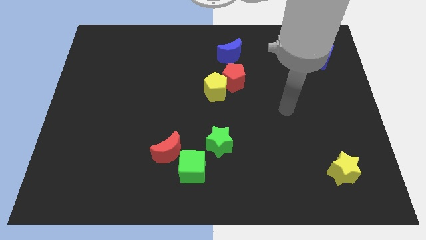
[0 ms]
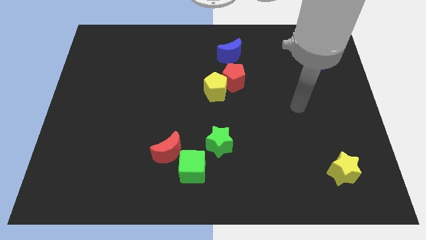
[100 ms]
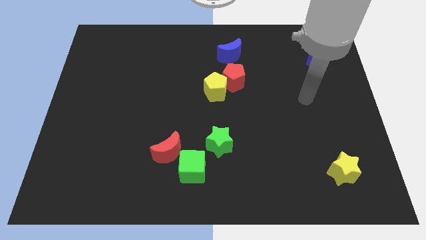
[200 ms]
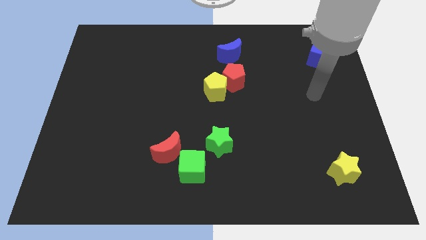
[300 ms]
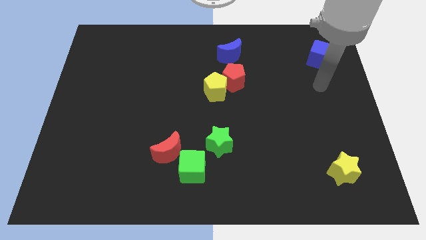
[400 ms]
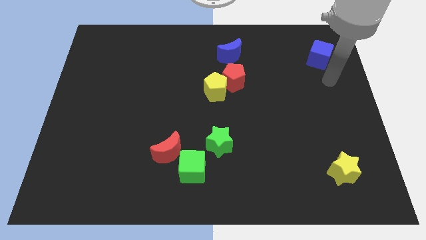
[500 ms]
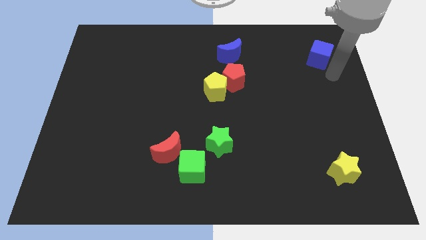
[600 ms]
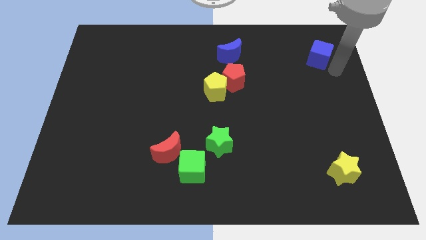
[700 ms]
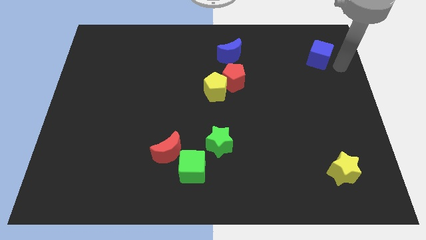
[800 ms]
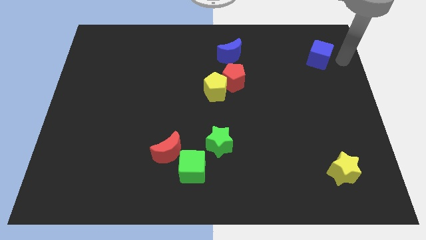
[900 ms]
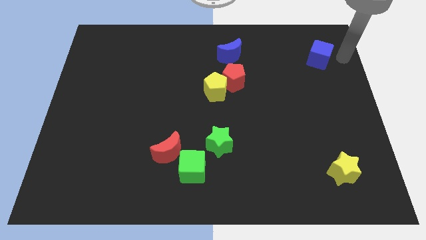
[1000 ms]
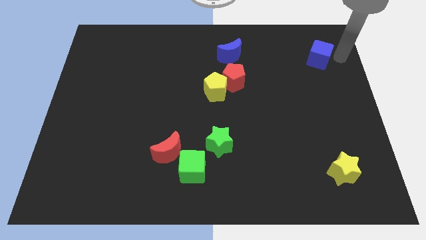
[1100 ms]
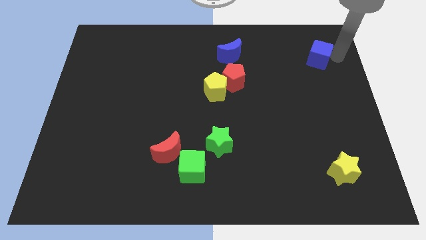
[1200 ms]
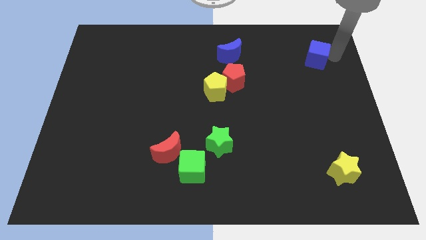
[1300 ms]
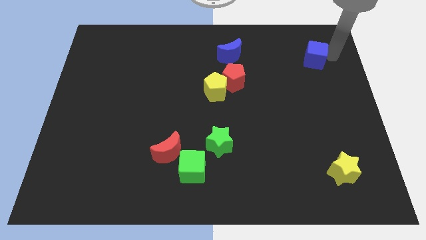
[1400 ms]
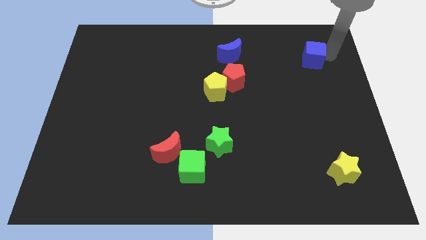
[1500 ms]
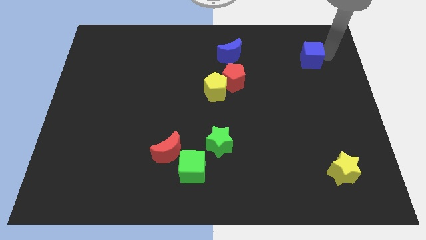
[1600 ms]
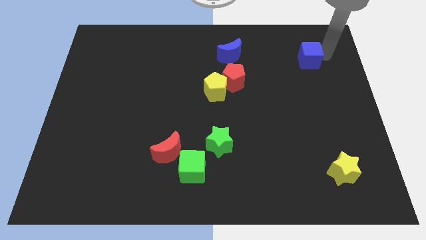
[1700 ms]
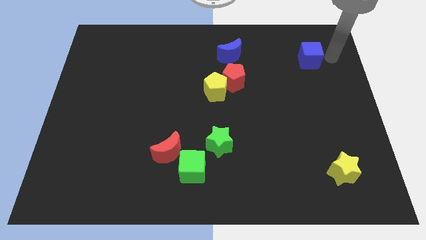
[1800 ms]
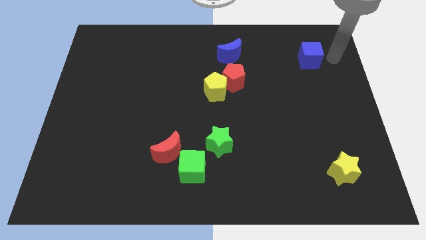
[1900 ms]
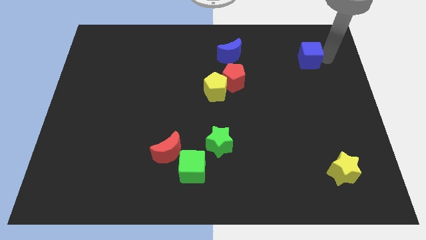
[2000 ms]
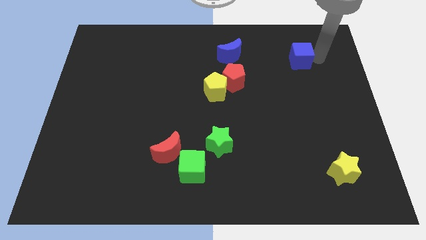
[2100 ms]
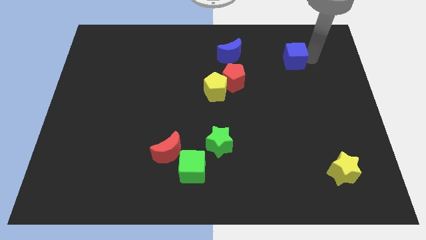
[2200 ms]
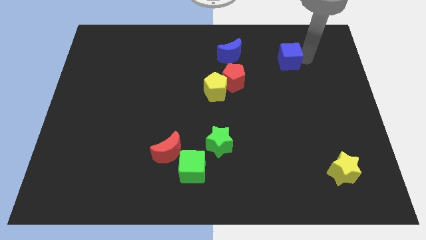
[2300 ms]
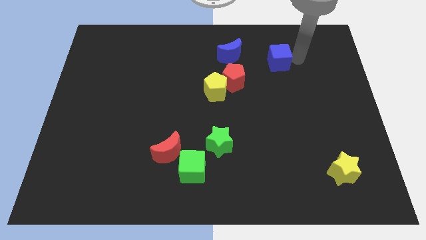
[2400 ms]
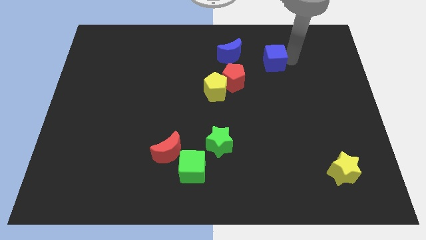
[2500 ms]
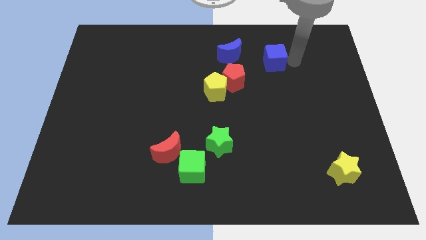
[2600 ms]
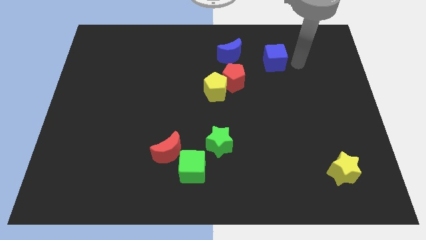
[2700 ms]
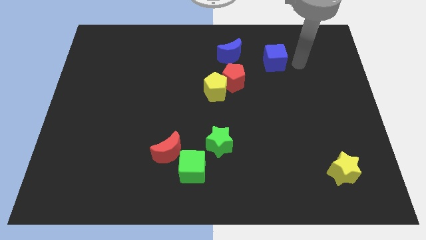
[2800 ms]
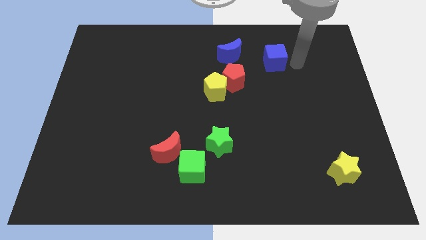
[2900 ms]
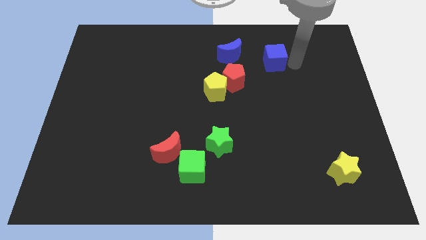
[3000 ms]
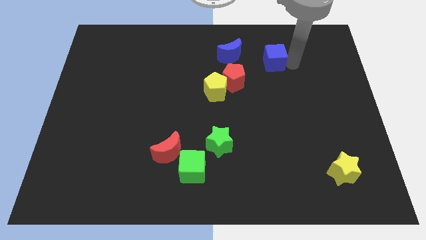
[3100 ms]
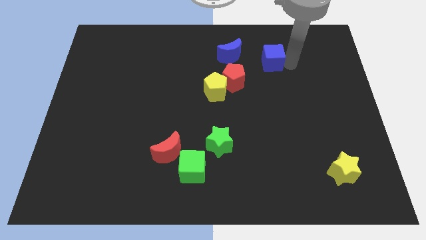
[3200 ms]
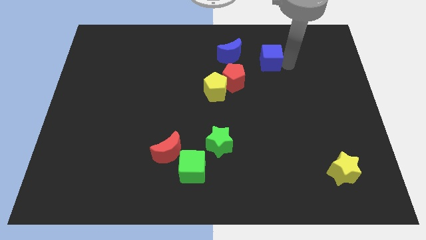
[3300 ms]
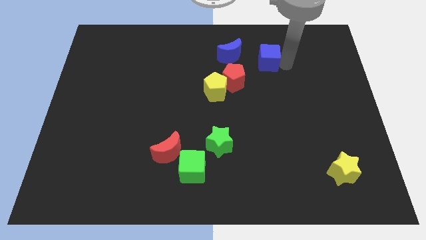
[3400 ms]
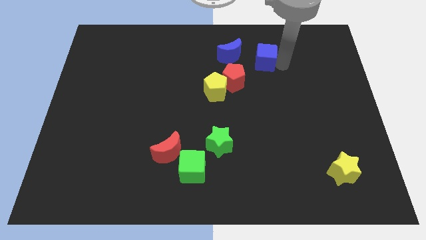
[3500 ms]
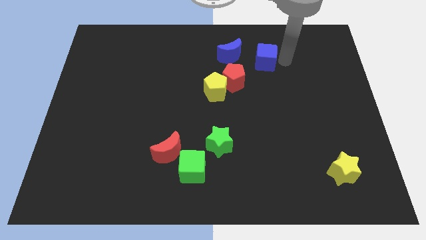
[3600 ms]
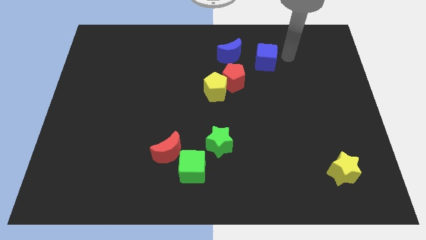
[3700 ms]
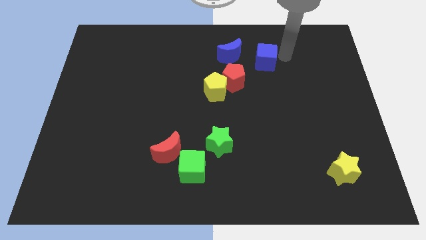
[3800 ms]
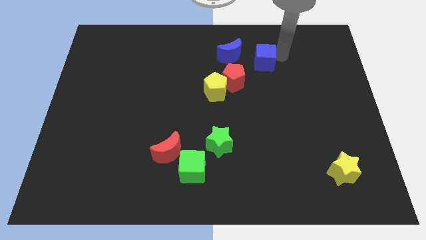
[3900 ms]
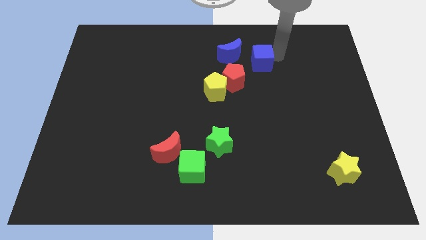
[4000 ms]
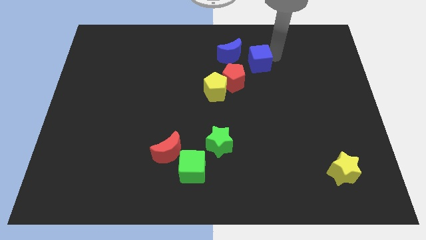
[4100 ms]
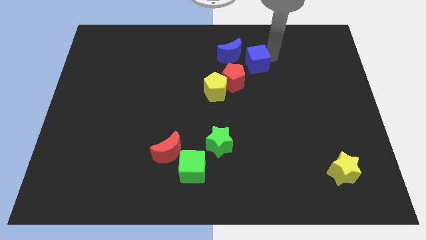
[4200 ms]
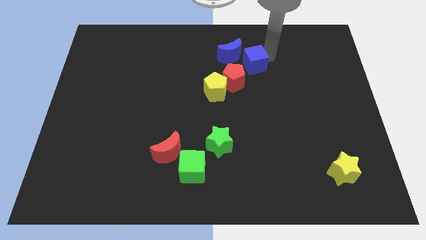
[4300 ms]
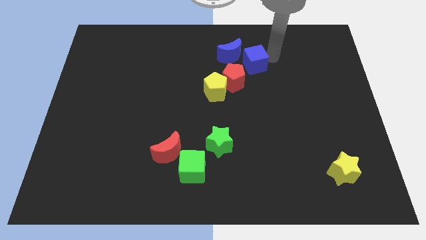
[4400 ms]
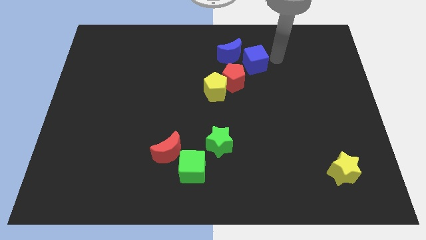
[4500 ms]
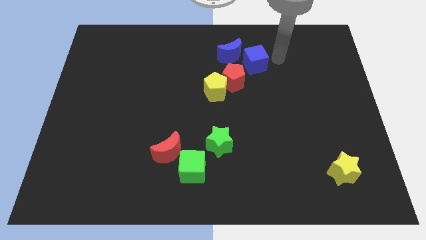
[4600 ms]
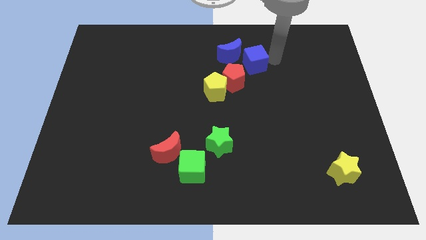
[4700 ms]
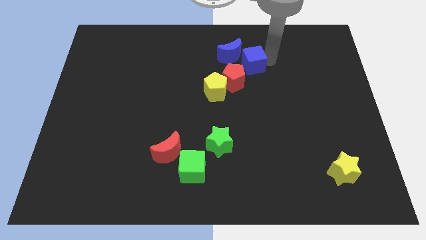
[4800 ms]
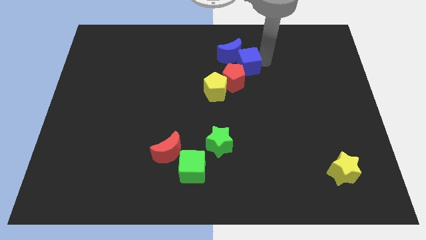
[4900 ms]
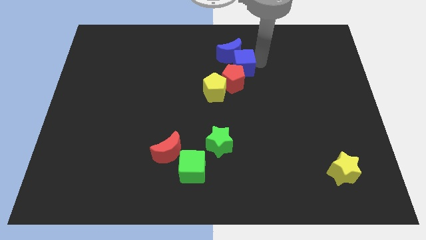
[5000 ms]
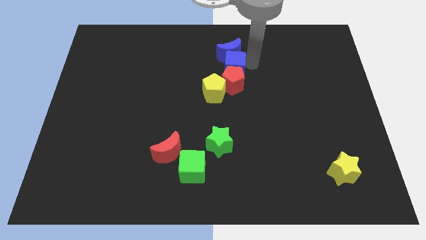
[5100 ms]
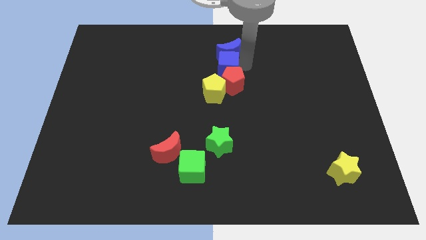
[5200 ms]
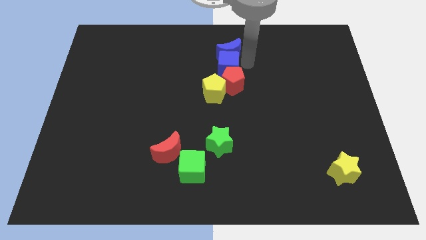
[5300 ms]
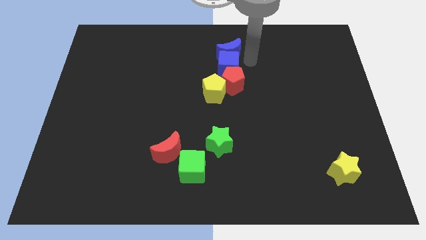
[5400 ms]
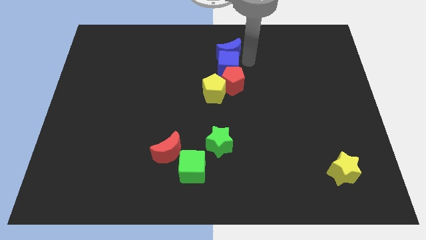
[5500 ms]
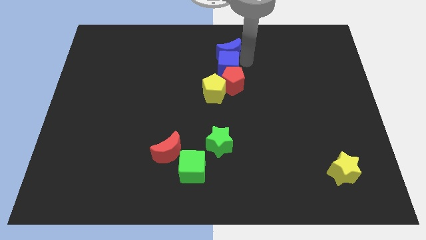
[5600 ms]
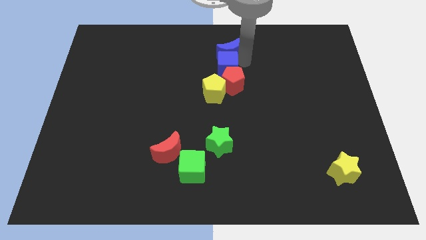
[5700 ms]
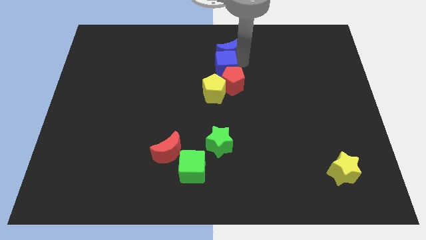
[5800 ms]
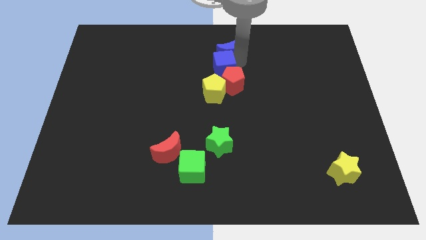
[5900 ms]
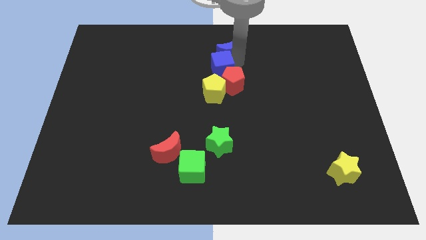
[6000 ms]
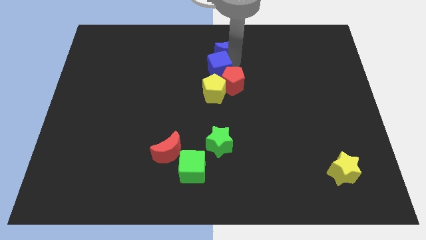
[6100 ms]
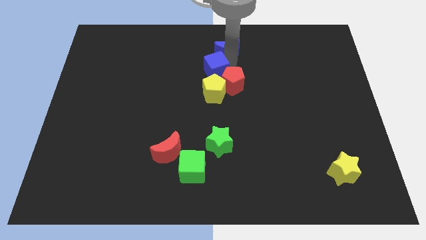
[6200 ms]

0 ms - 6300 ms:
put the blue cube just left of the red pentagon

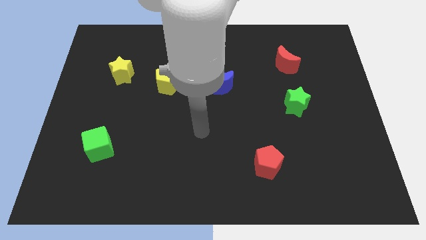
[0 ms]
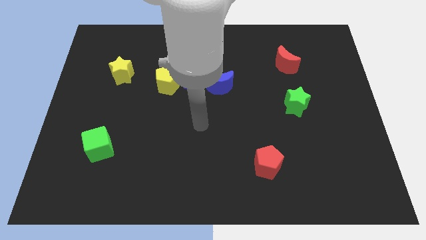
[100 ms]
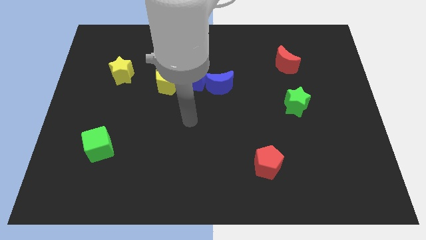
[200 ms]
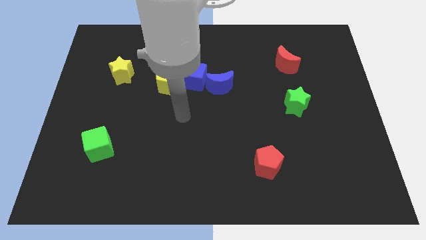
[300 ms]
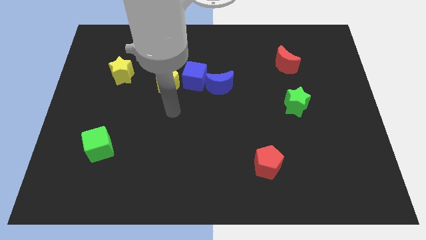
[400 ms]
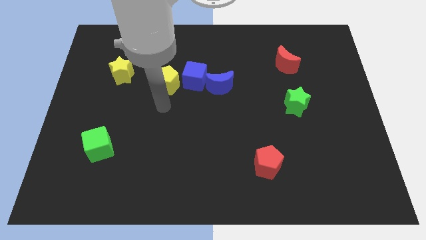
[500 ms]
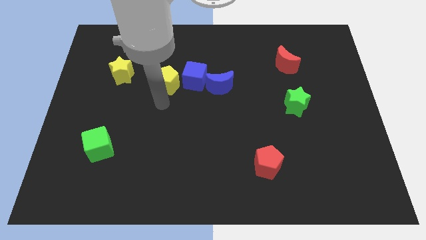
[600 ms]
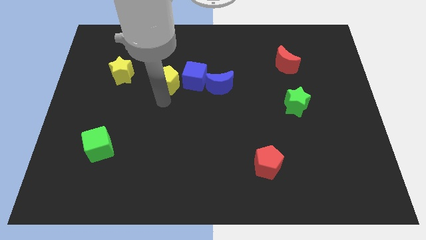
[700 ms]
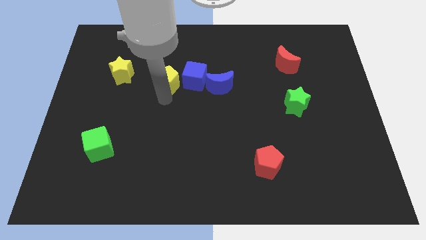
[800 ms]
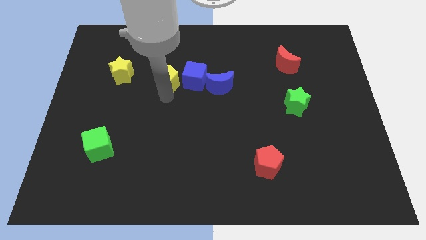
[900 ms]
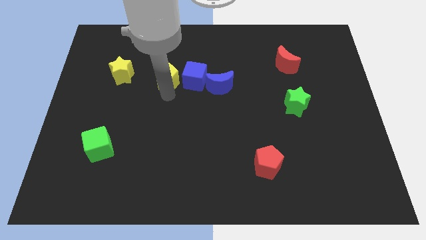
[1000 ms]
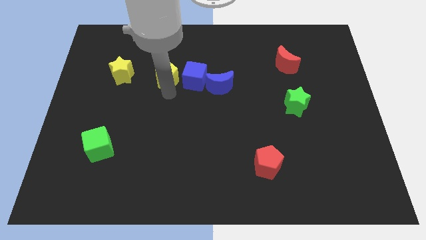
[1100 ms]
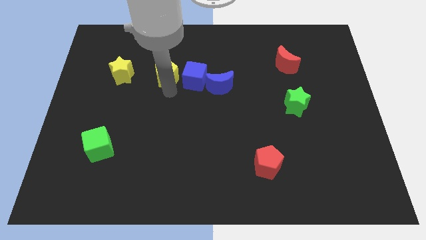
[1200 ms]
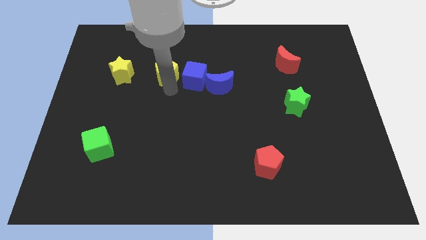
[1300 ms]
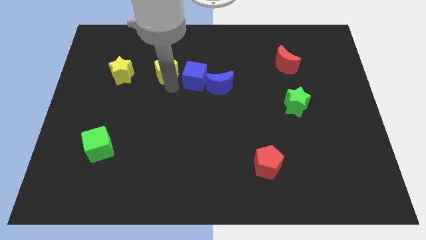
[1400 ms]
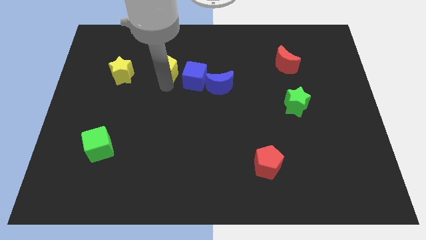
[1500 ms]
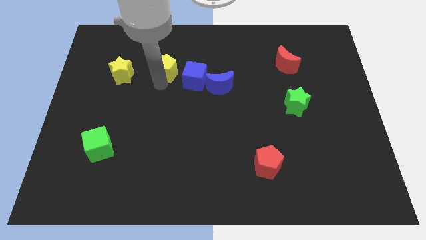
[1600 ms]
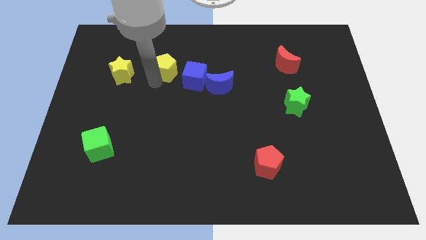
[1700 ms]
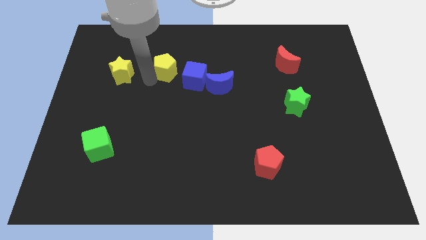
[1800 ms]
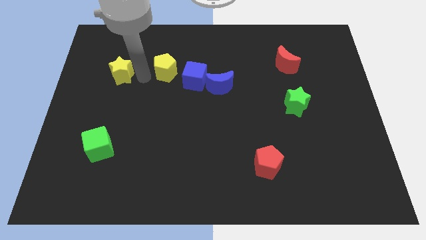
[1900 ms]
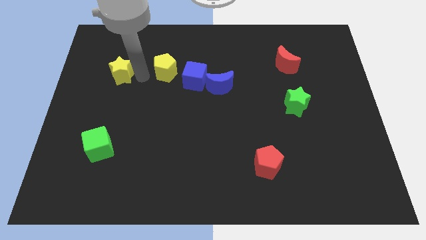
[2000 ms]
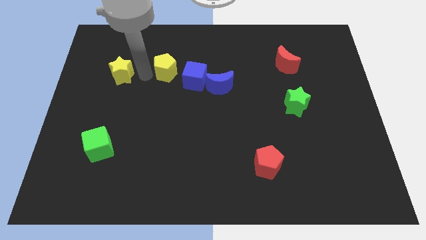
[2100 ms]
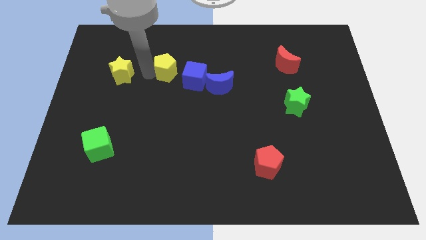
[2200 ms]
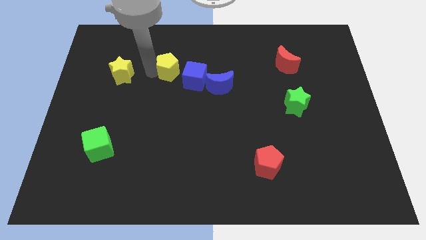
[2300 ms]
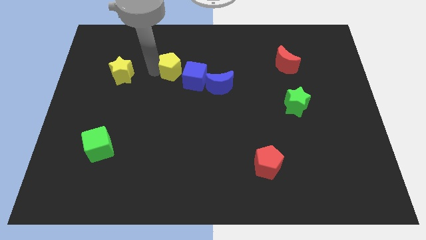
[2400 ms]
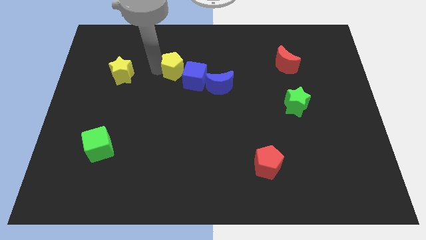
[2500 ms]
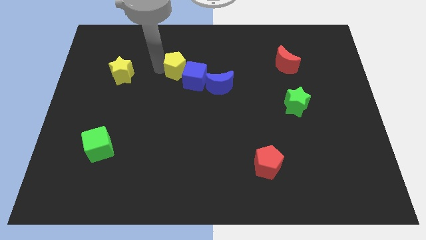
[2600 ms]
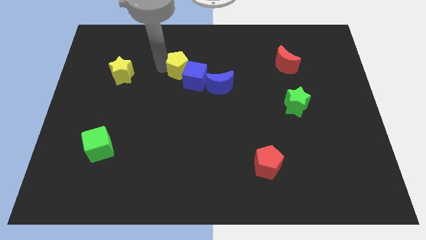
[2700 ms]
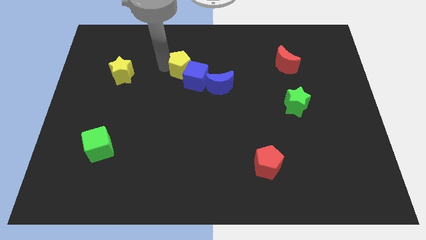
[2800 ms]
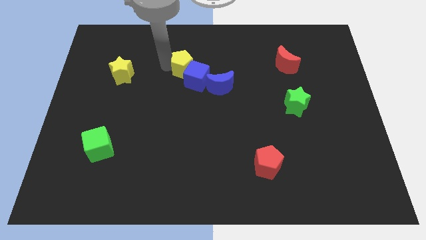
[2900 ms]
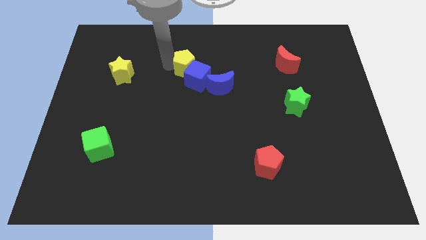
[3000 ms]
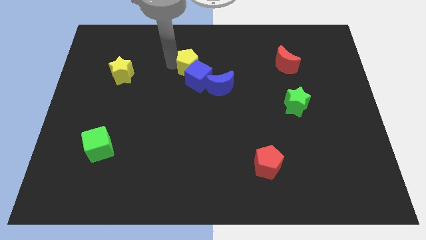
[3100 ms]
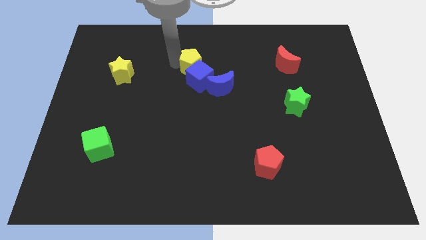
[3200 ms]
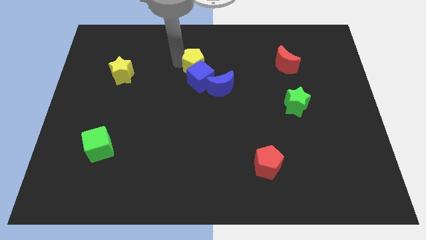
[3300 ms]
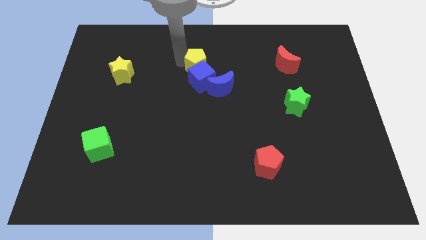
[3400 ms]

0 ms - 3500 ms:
push the yellow pentagon to the top right side of the blue cube
